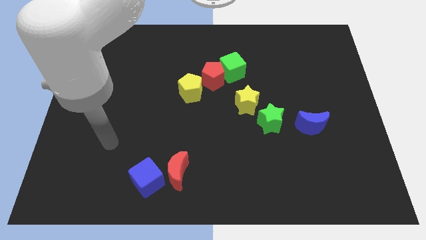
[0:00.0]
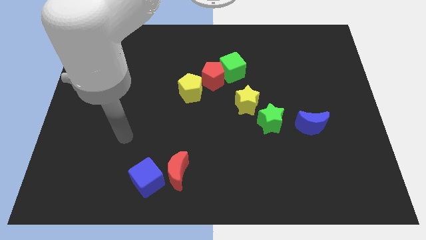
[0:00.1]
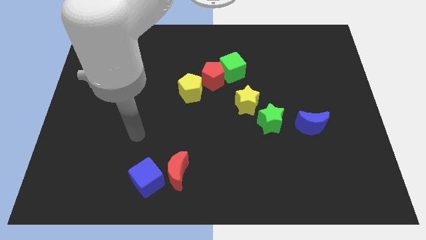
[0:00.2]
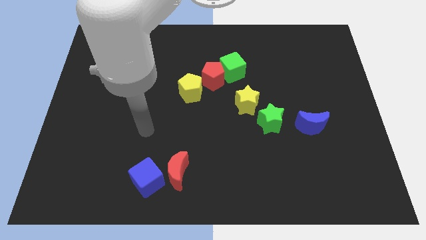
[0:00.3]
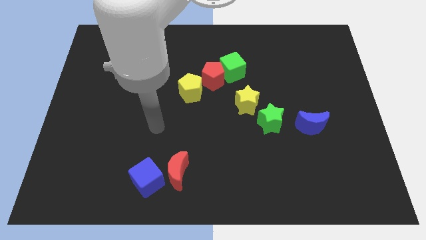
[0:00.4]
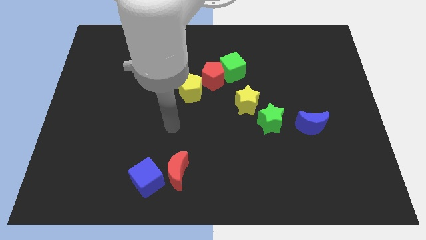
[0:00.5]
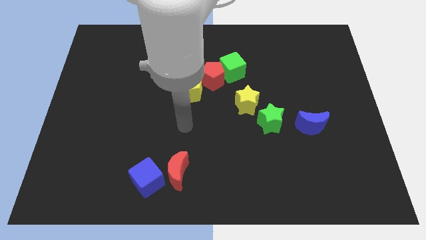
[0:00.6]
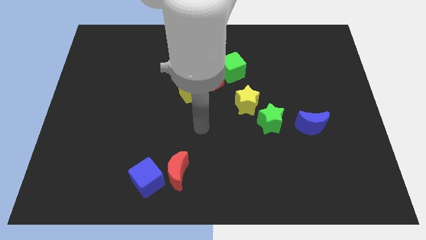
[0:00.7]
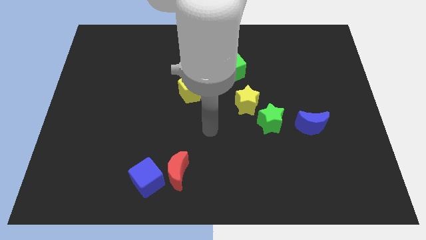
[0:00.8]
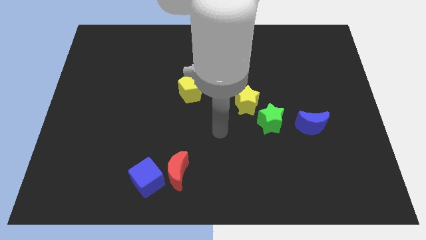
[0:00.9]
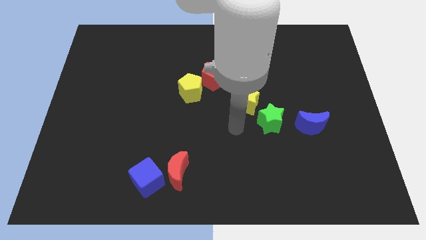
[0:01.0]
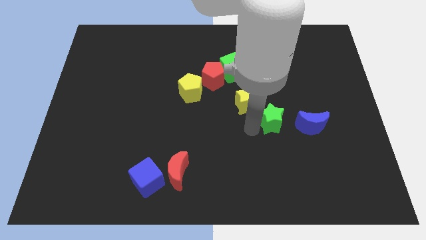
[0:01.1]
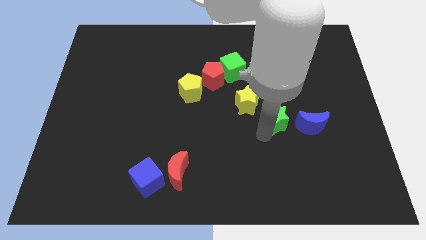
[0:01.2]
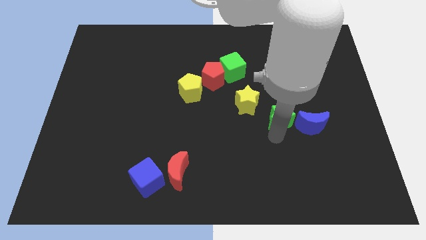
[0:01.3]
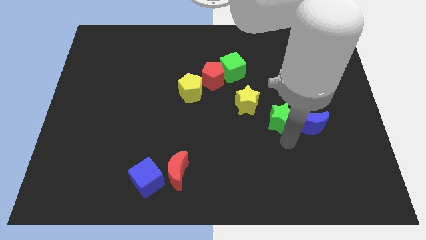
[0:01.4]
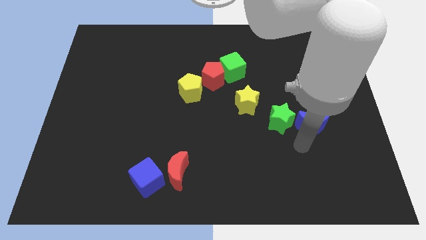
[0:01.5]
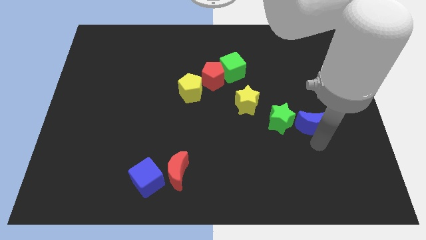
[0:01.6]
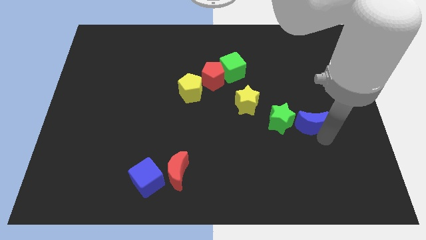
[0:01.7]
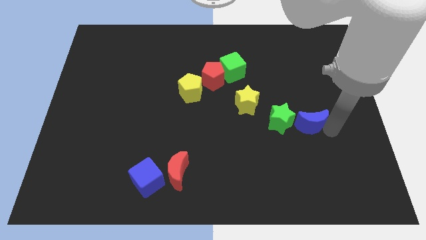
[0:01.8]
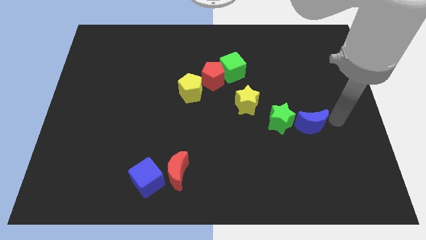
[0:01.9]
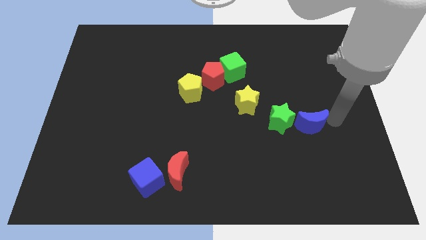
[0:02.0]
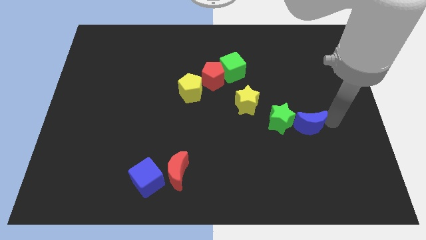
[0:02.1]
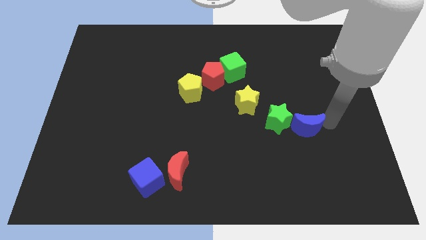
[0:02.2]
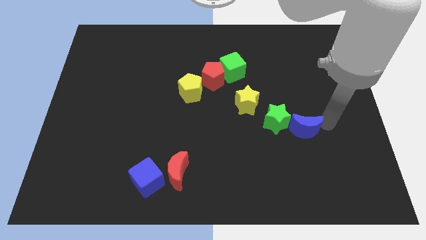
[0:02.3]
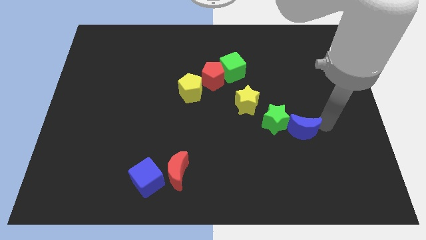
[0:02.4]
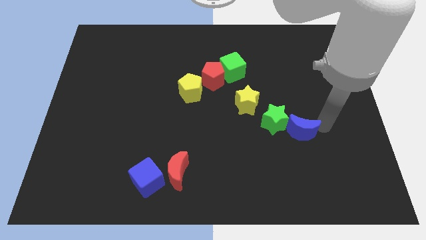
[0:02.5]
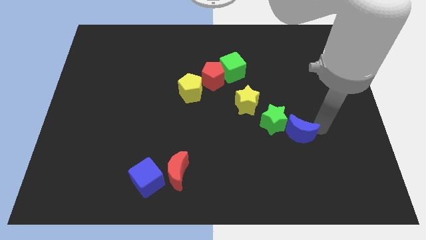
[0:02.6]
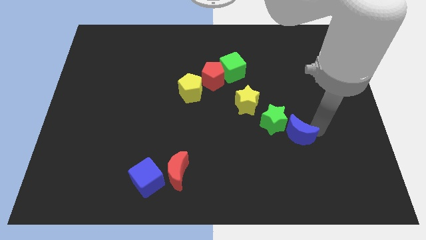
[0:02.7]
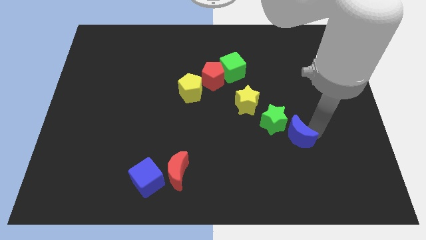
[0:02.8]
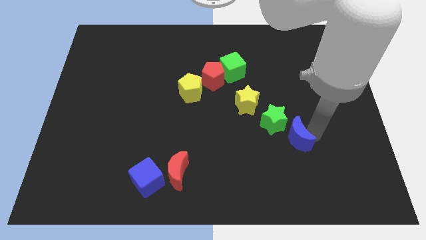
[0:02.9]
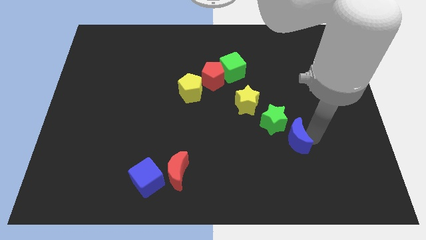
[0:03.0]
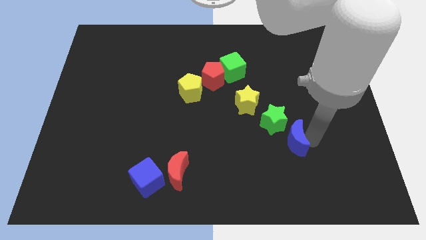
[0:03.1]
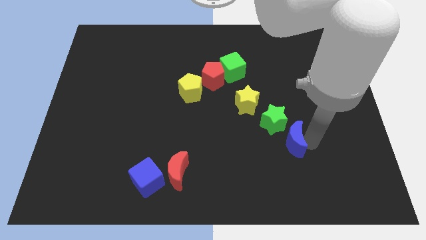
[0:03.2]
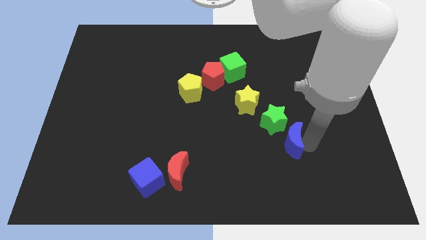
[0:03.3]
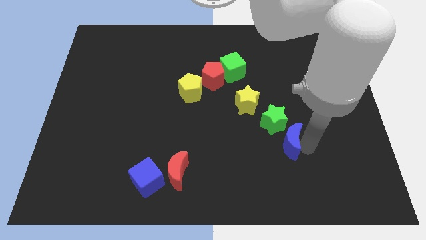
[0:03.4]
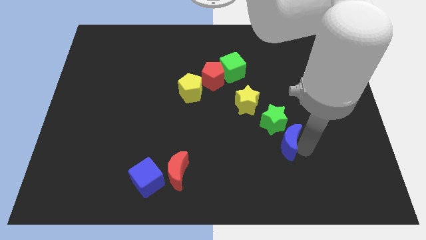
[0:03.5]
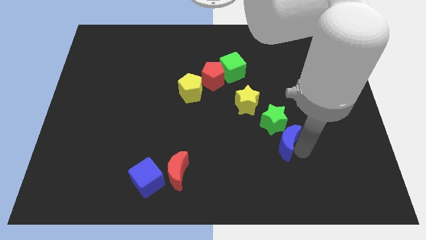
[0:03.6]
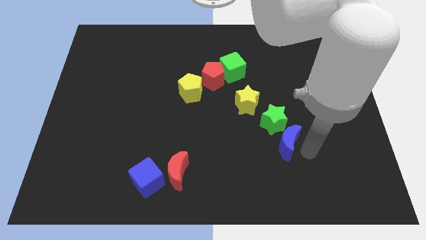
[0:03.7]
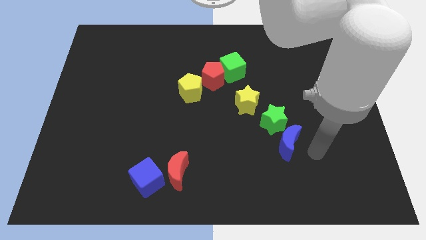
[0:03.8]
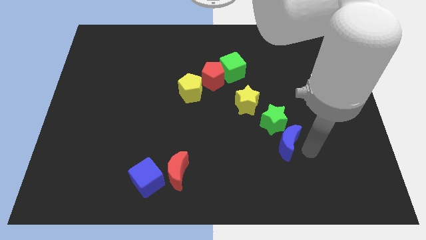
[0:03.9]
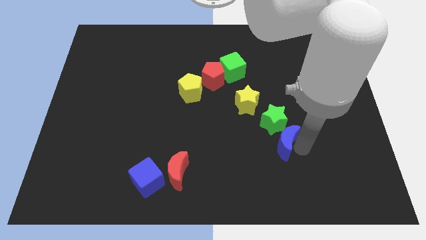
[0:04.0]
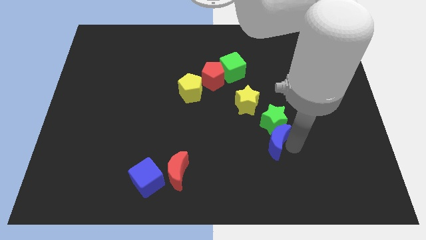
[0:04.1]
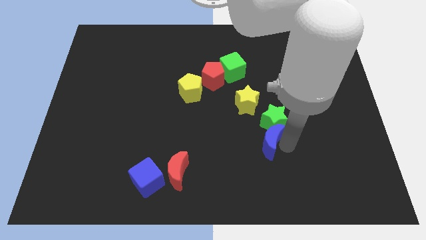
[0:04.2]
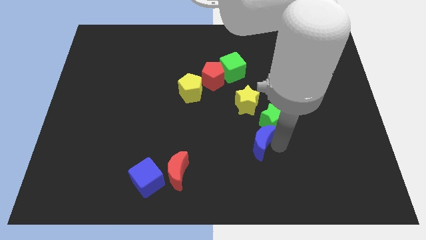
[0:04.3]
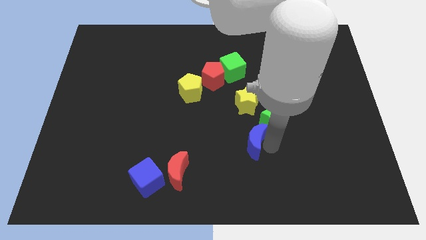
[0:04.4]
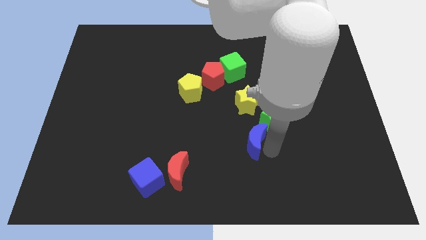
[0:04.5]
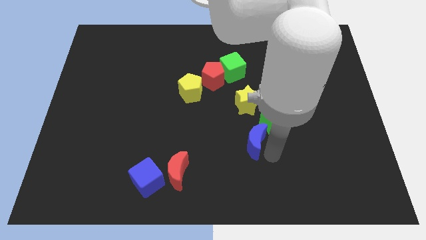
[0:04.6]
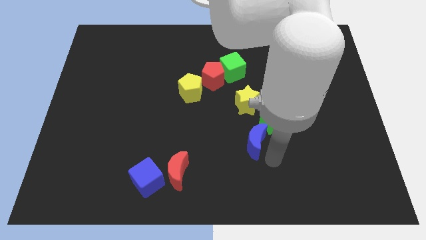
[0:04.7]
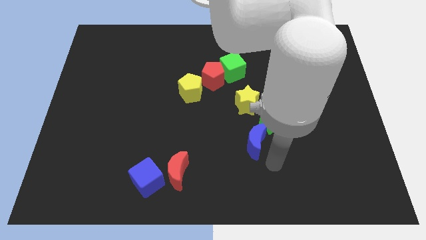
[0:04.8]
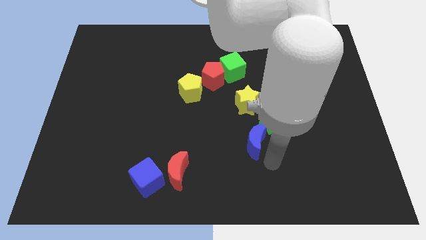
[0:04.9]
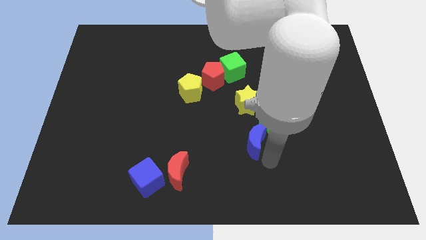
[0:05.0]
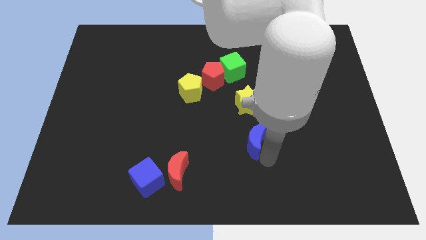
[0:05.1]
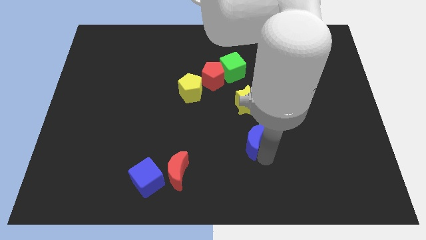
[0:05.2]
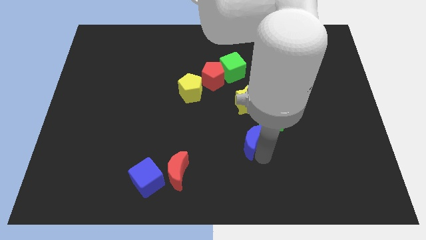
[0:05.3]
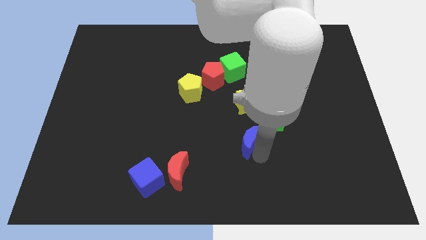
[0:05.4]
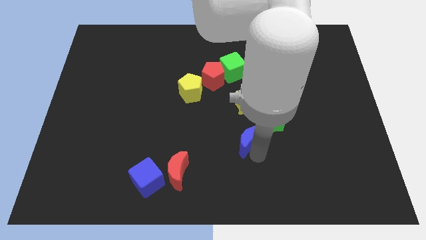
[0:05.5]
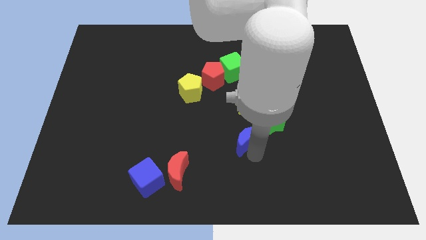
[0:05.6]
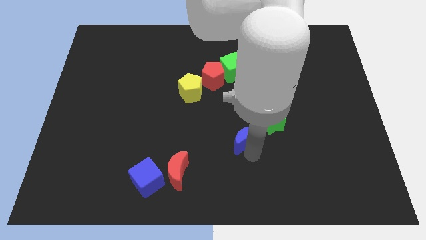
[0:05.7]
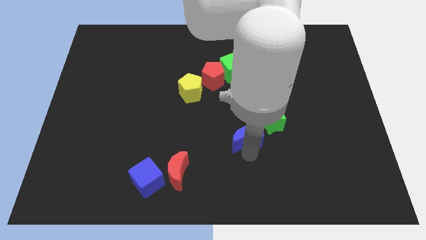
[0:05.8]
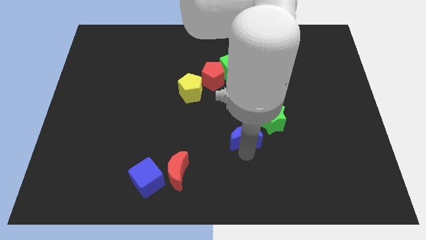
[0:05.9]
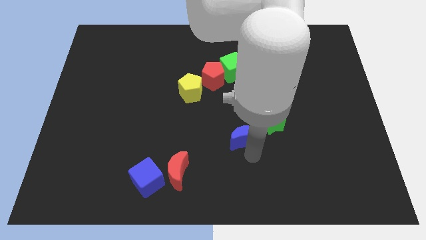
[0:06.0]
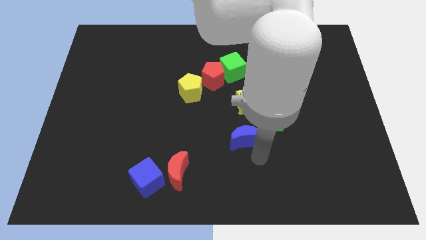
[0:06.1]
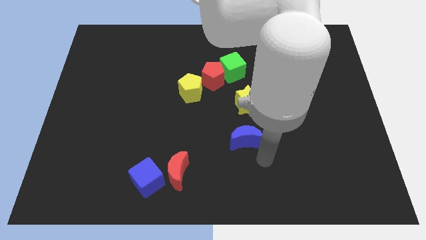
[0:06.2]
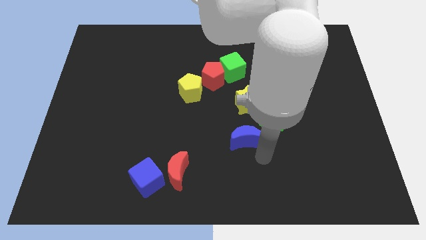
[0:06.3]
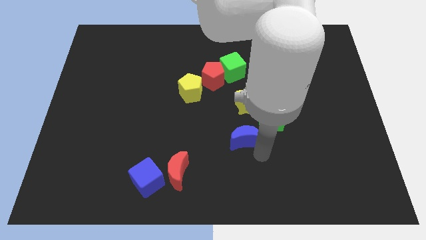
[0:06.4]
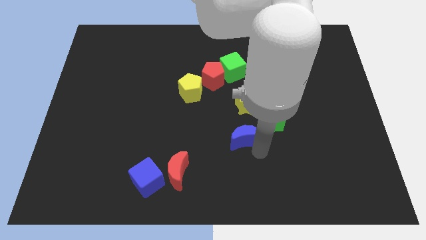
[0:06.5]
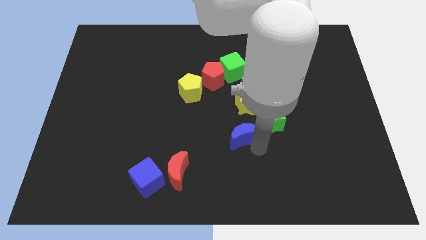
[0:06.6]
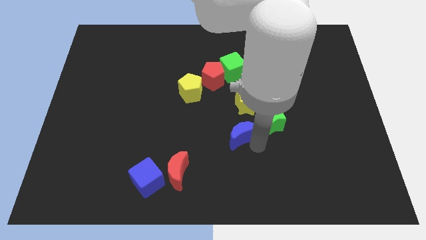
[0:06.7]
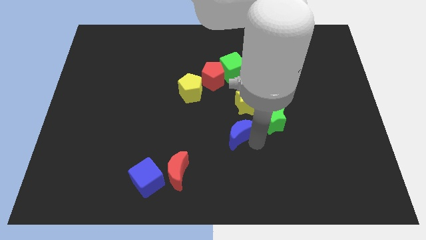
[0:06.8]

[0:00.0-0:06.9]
slide the blue moon to the bottom left of the yellow star

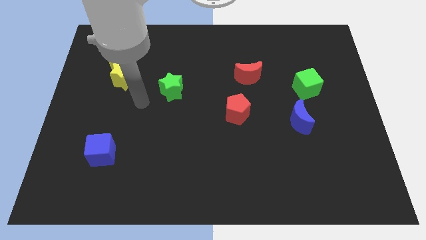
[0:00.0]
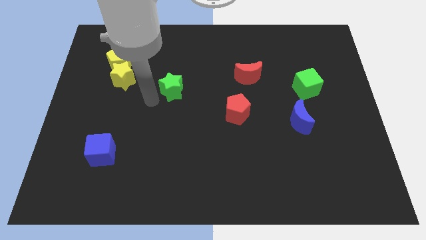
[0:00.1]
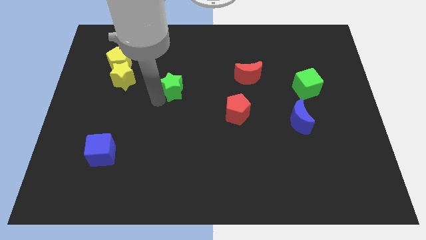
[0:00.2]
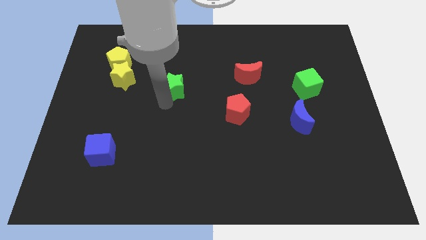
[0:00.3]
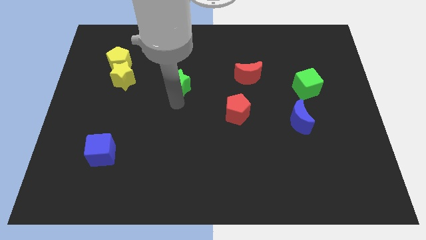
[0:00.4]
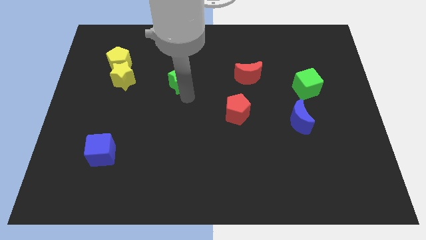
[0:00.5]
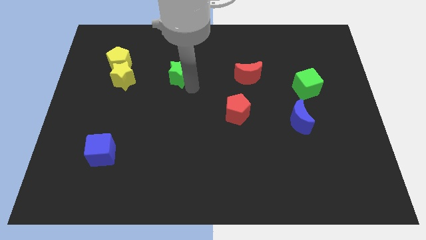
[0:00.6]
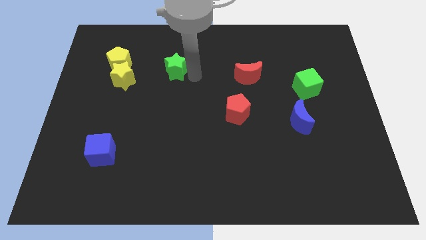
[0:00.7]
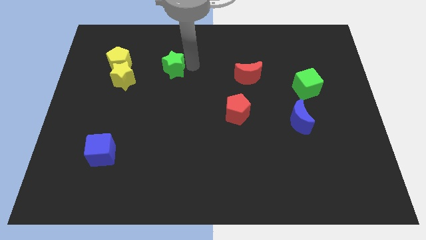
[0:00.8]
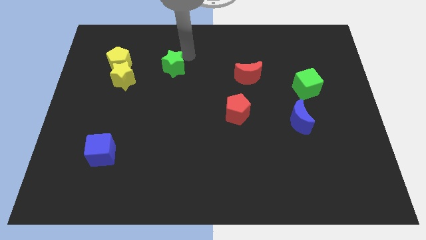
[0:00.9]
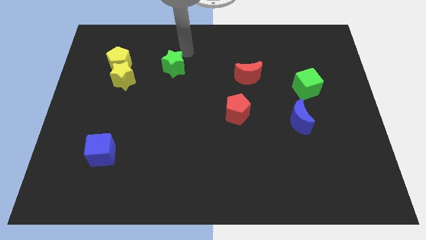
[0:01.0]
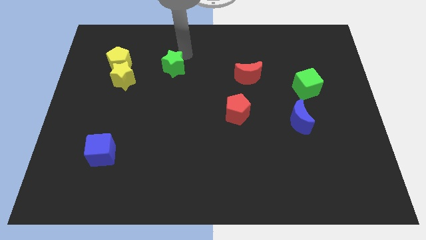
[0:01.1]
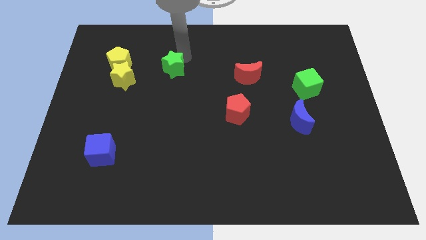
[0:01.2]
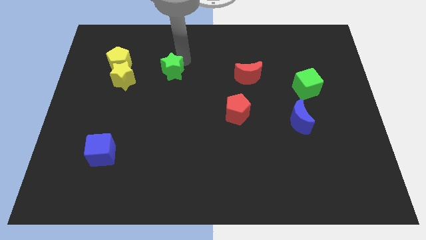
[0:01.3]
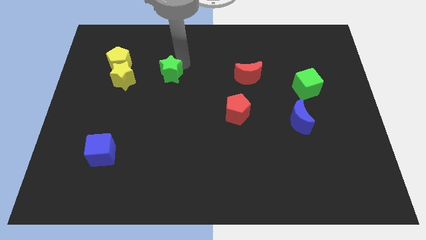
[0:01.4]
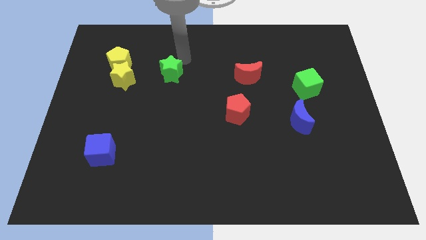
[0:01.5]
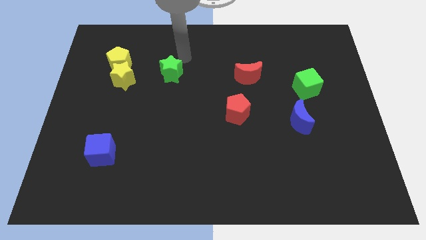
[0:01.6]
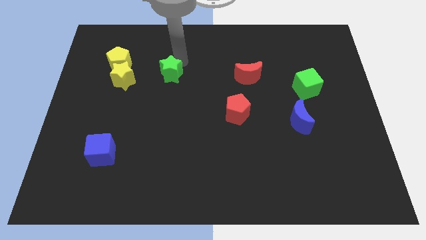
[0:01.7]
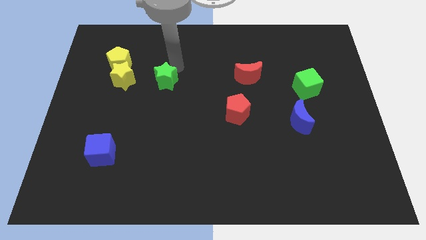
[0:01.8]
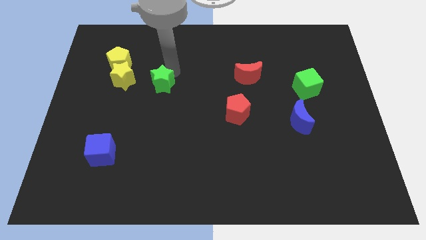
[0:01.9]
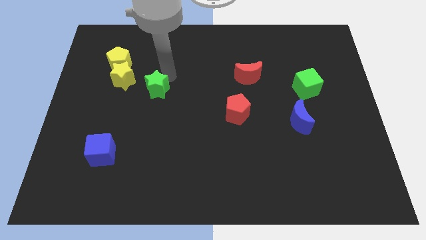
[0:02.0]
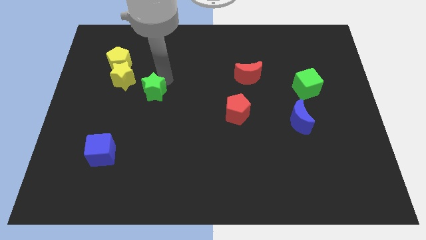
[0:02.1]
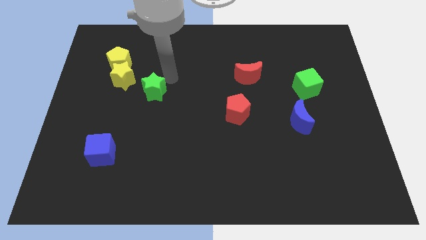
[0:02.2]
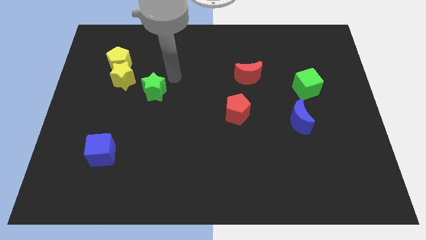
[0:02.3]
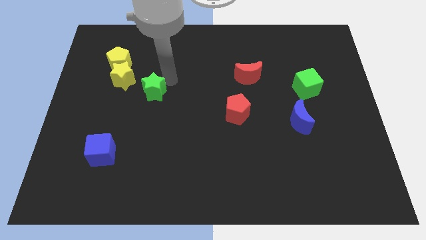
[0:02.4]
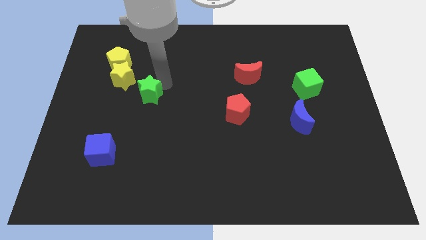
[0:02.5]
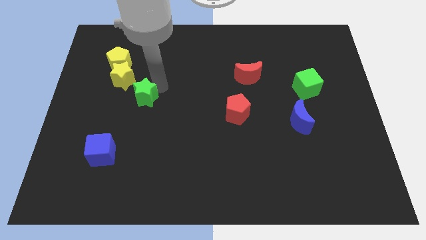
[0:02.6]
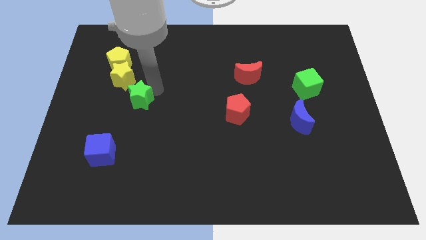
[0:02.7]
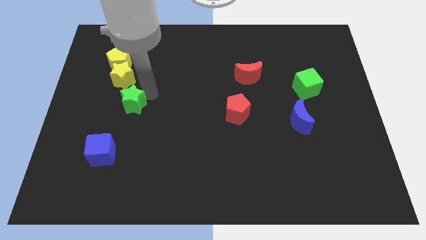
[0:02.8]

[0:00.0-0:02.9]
push the green star to the bottom of the yellow star
